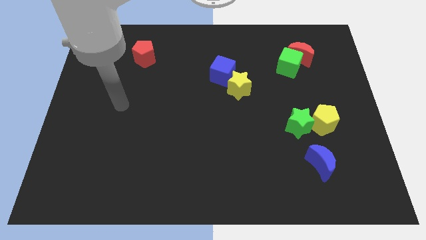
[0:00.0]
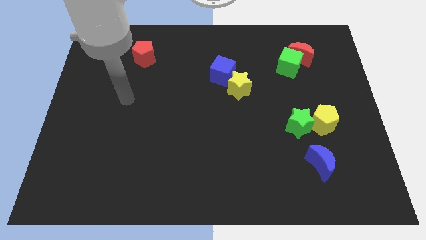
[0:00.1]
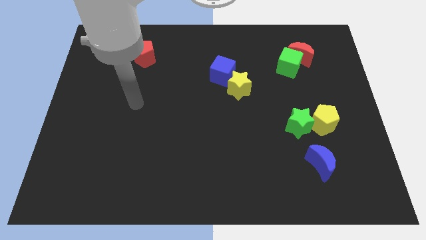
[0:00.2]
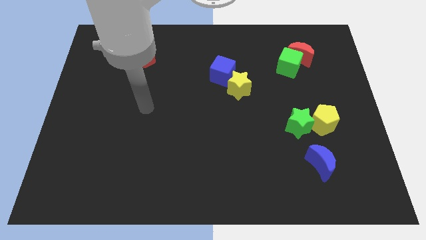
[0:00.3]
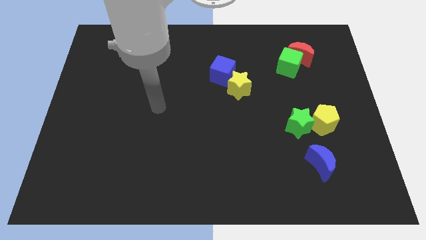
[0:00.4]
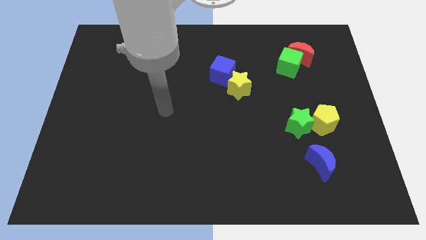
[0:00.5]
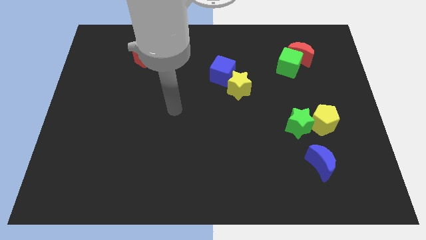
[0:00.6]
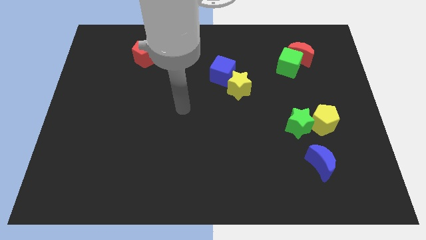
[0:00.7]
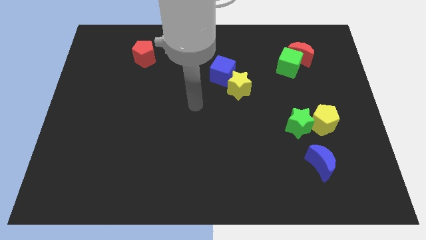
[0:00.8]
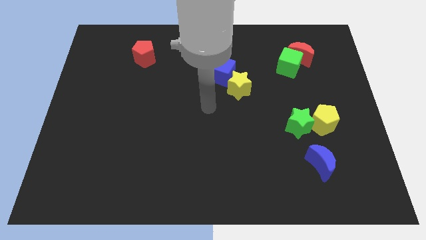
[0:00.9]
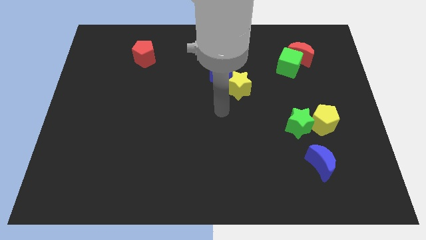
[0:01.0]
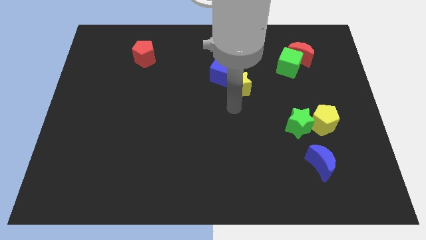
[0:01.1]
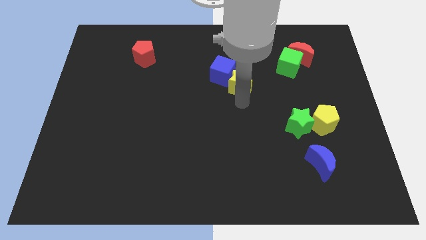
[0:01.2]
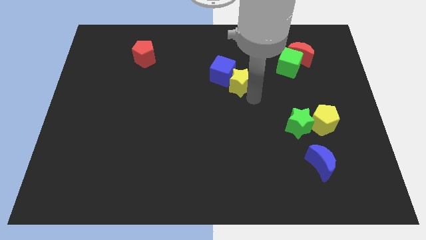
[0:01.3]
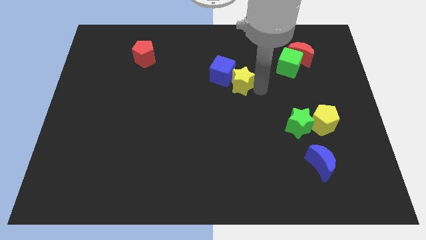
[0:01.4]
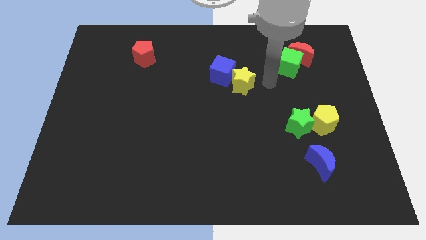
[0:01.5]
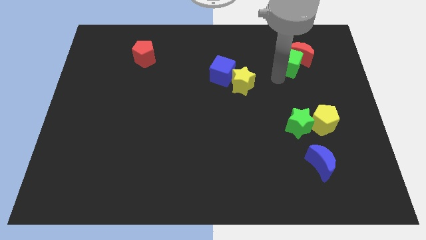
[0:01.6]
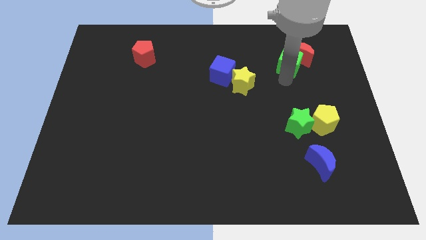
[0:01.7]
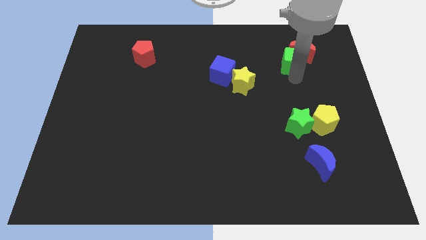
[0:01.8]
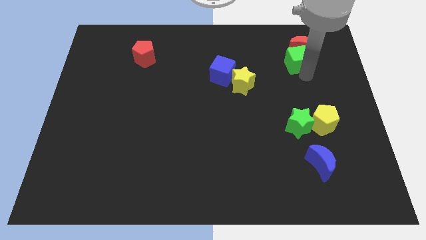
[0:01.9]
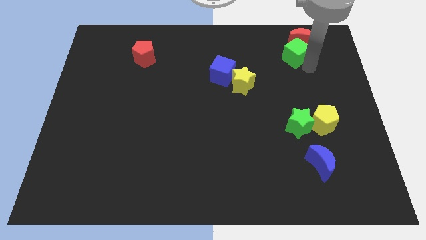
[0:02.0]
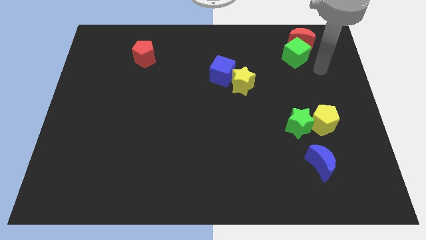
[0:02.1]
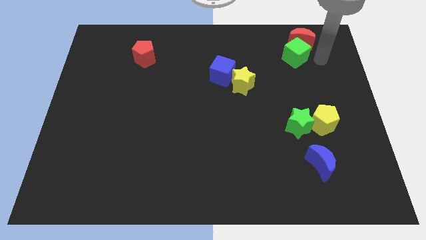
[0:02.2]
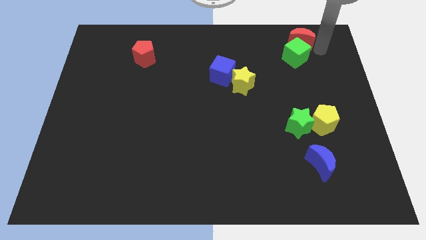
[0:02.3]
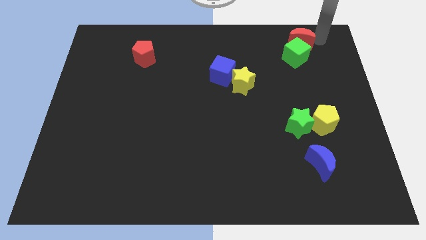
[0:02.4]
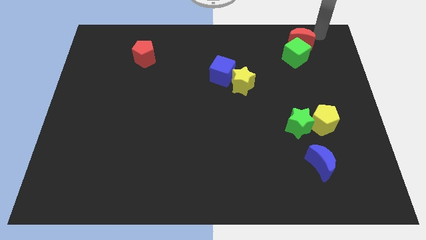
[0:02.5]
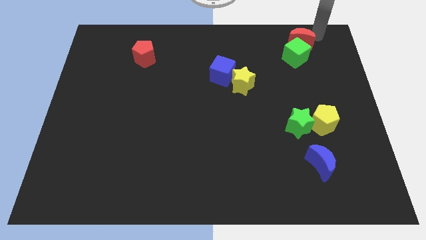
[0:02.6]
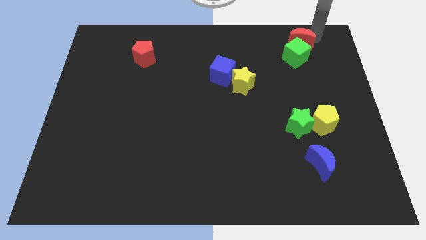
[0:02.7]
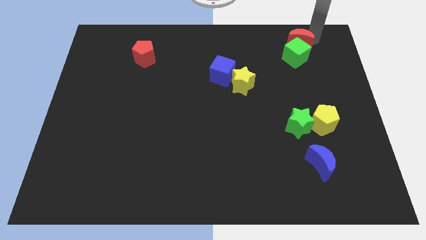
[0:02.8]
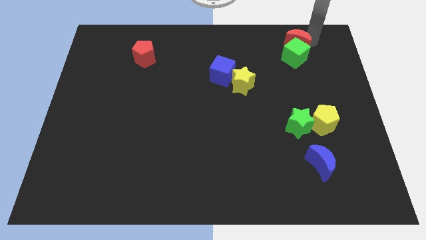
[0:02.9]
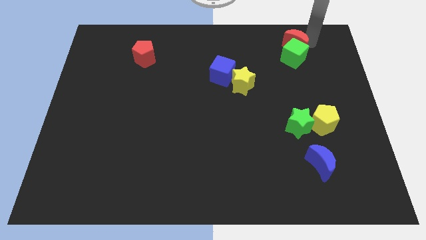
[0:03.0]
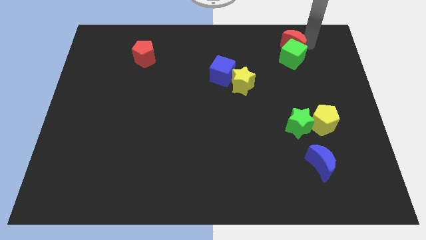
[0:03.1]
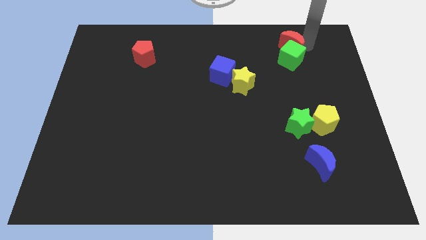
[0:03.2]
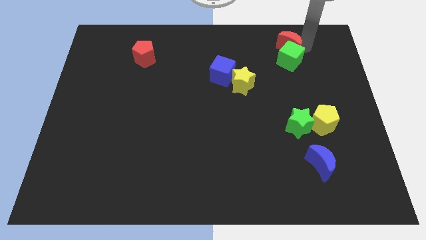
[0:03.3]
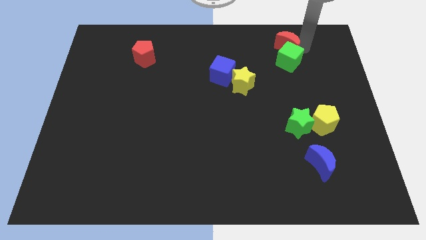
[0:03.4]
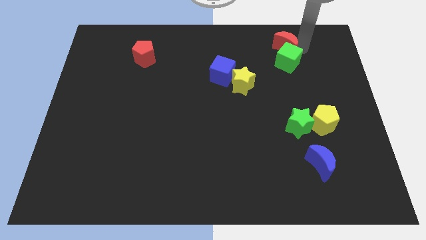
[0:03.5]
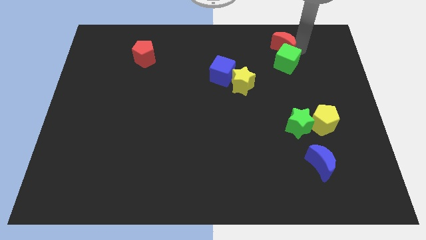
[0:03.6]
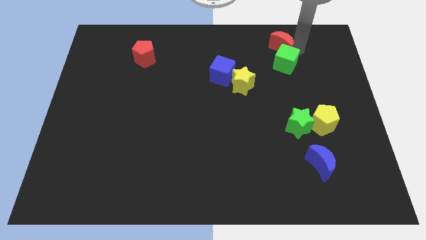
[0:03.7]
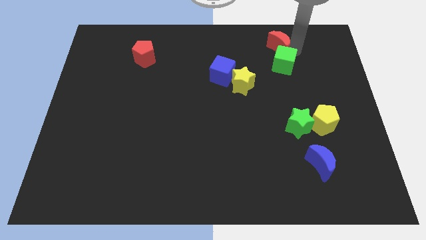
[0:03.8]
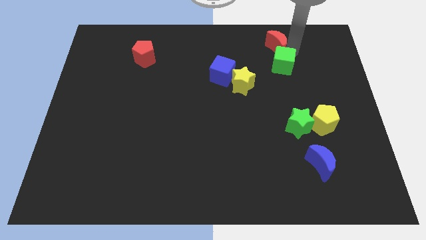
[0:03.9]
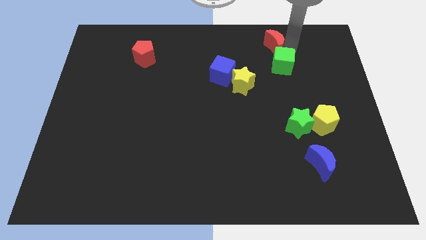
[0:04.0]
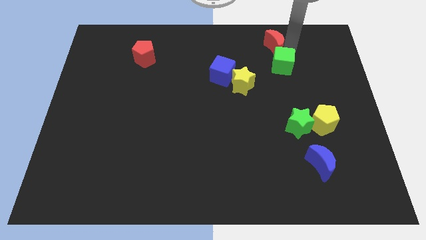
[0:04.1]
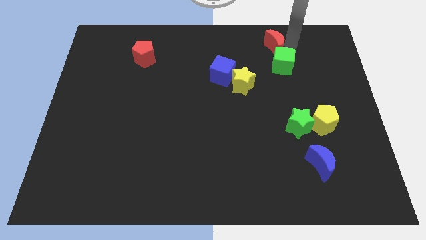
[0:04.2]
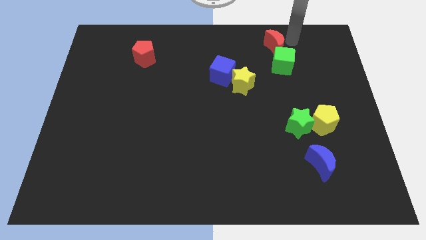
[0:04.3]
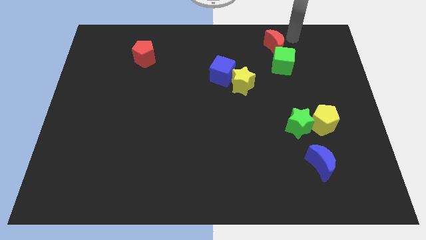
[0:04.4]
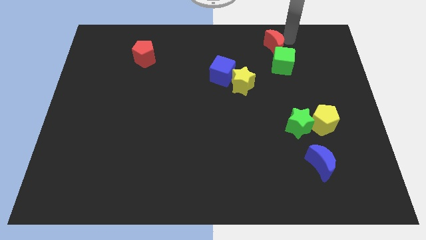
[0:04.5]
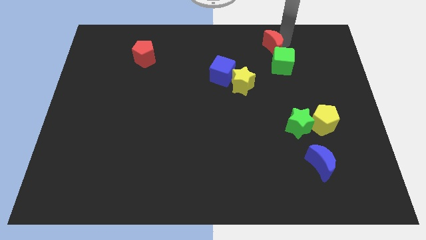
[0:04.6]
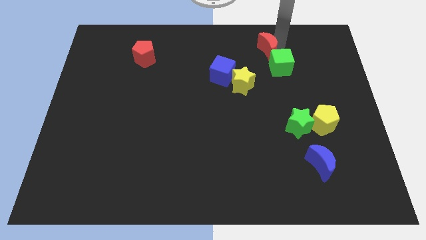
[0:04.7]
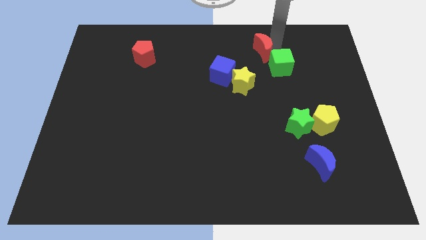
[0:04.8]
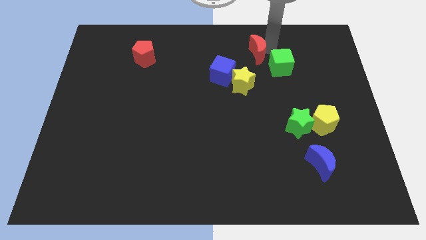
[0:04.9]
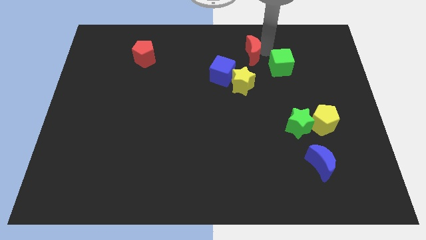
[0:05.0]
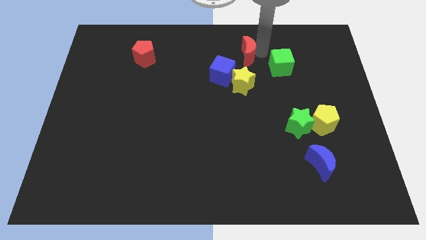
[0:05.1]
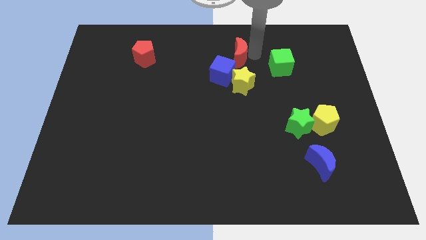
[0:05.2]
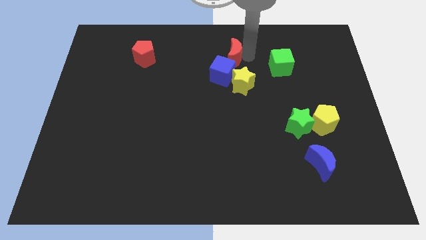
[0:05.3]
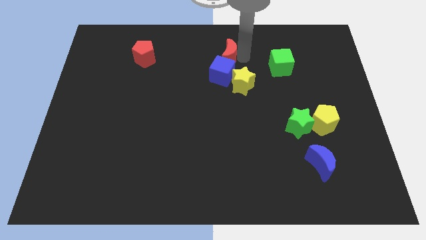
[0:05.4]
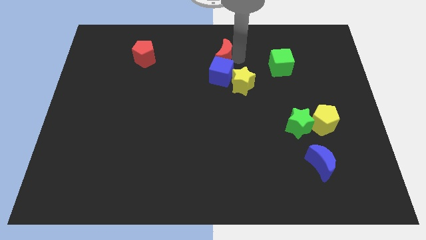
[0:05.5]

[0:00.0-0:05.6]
move the red moon to the left

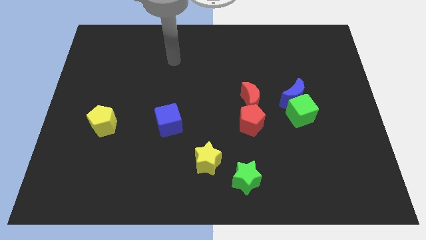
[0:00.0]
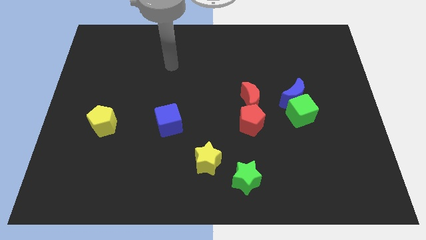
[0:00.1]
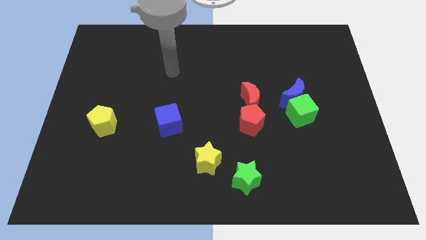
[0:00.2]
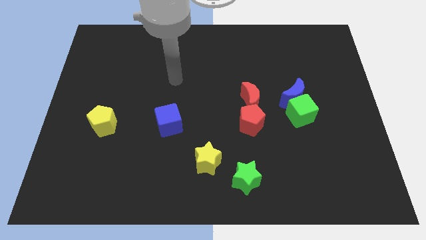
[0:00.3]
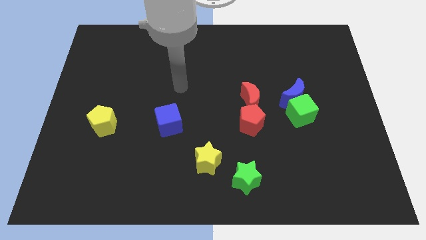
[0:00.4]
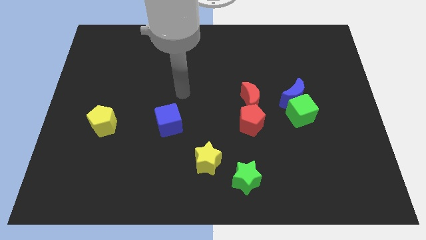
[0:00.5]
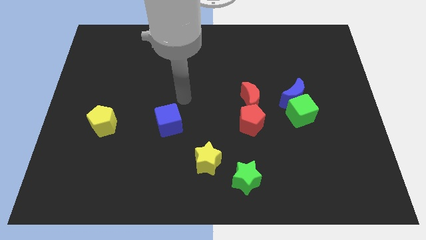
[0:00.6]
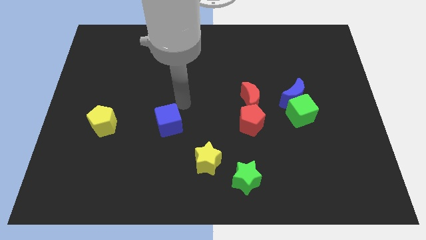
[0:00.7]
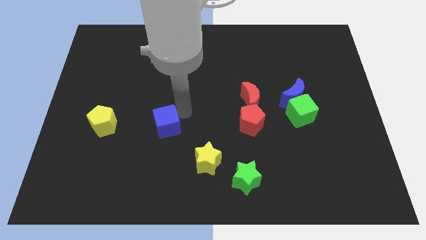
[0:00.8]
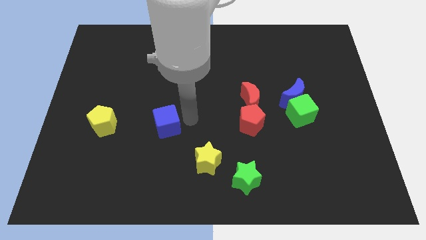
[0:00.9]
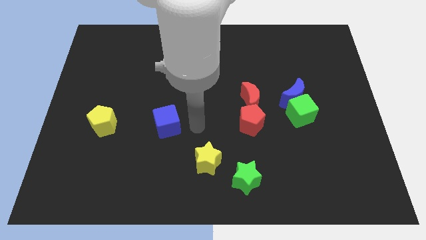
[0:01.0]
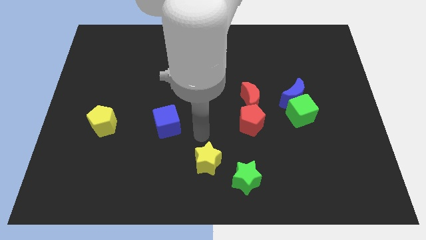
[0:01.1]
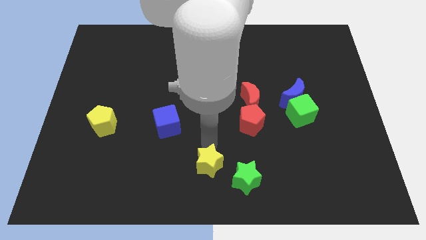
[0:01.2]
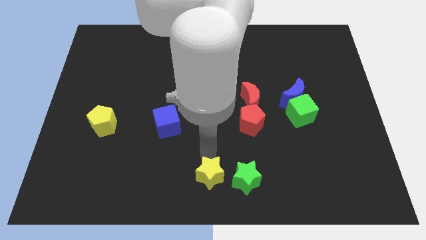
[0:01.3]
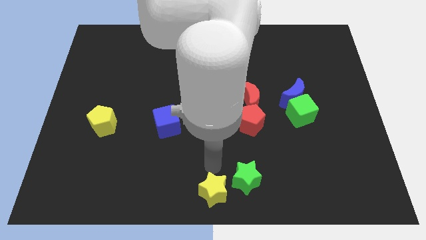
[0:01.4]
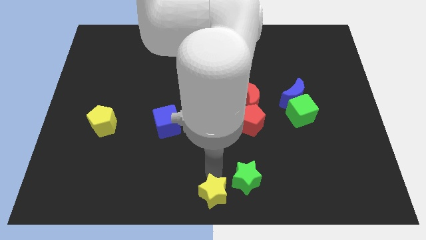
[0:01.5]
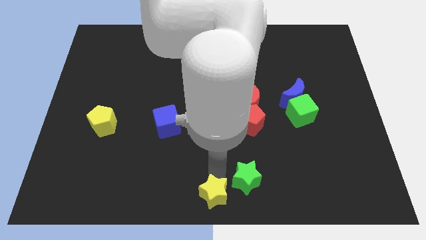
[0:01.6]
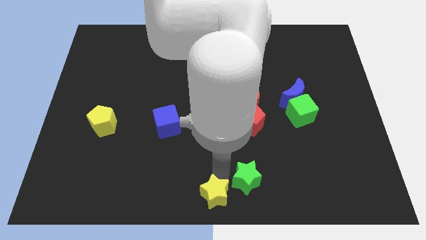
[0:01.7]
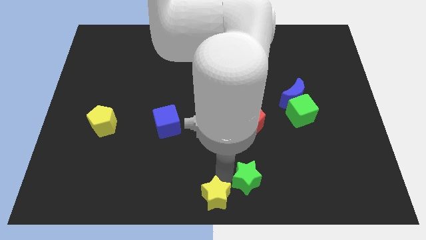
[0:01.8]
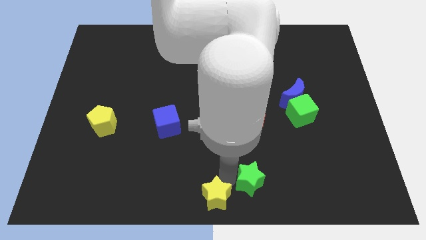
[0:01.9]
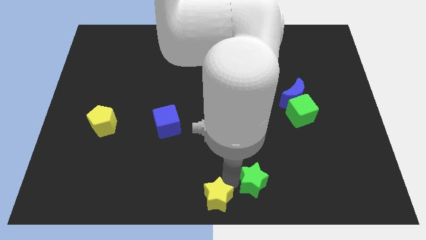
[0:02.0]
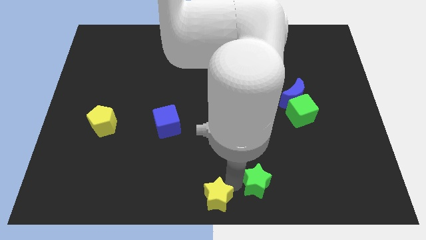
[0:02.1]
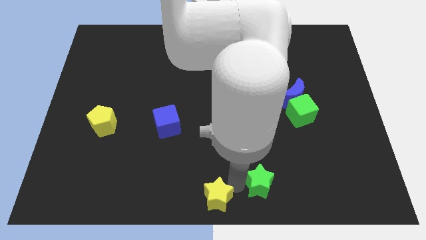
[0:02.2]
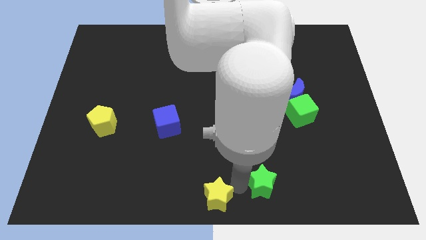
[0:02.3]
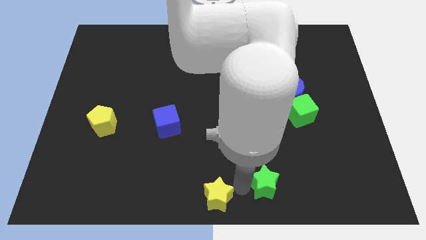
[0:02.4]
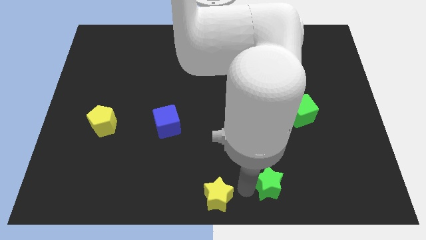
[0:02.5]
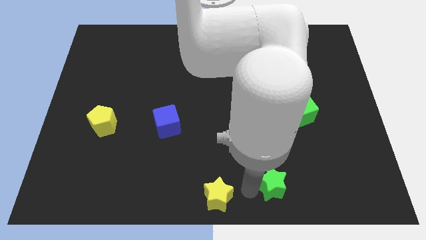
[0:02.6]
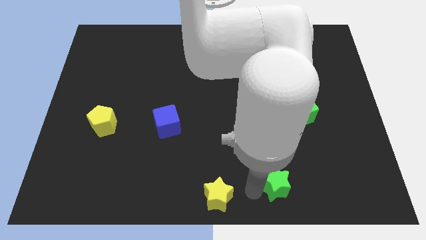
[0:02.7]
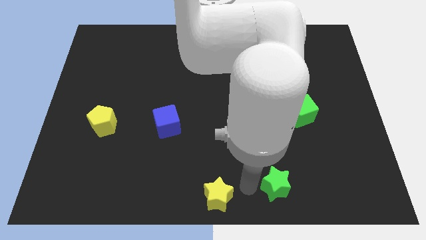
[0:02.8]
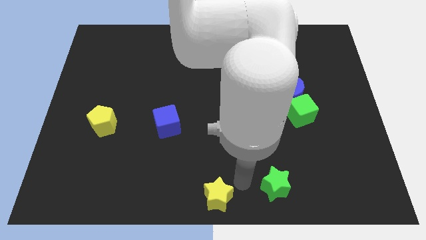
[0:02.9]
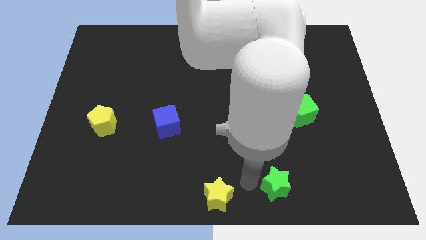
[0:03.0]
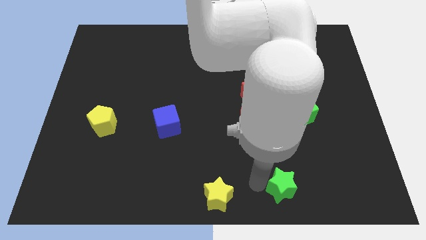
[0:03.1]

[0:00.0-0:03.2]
push the green star to the right somewhat
